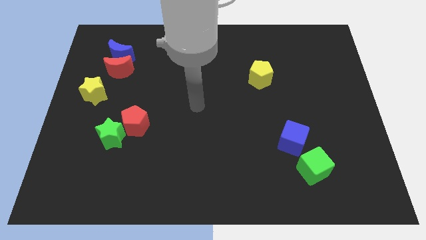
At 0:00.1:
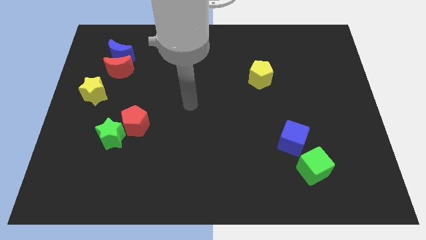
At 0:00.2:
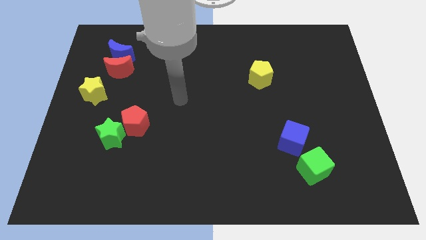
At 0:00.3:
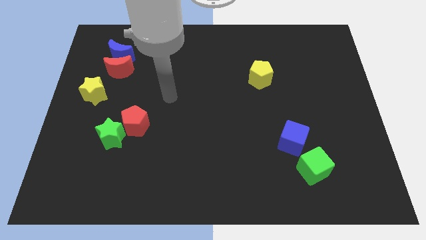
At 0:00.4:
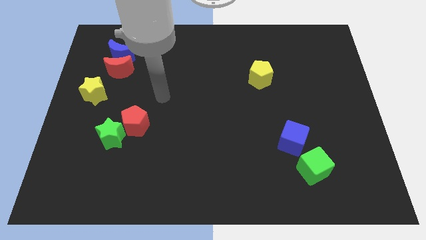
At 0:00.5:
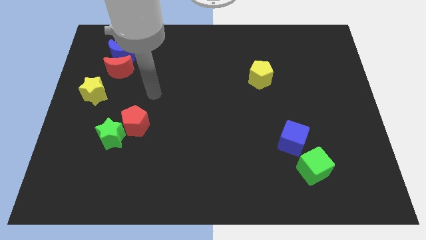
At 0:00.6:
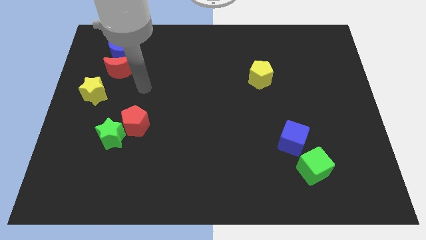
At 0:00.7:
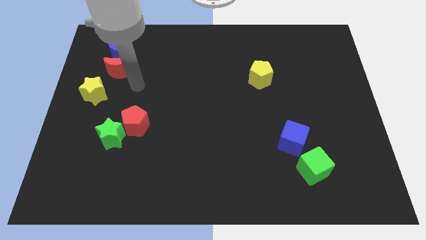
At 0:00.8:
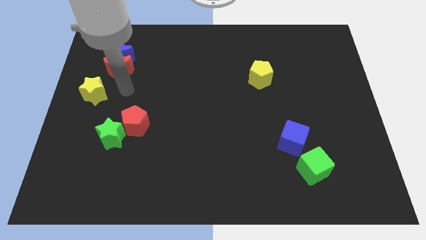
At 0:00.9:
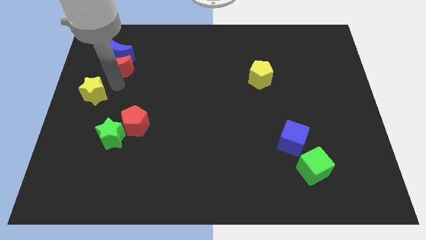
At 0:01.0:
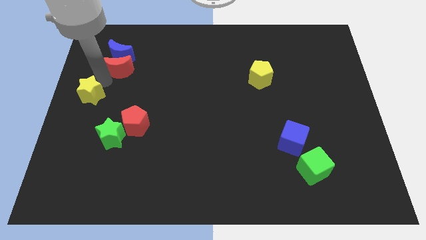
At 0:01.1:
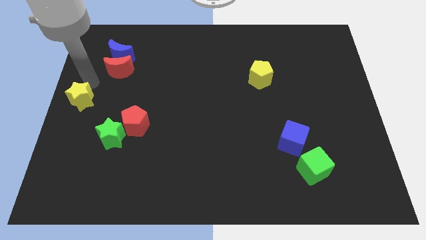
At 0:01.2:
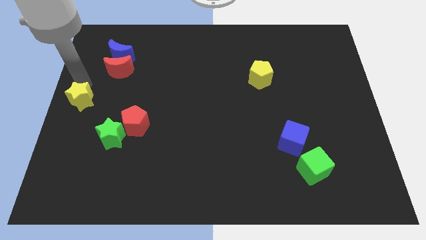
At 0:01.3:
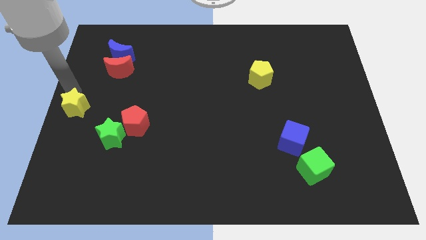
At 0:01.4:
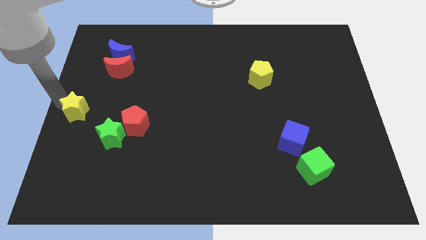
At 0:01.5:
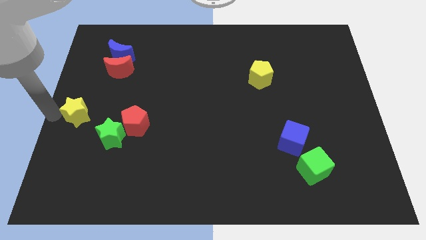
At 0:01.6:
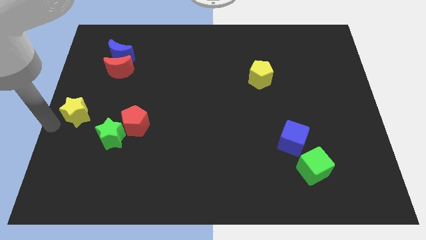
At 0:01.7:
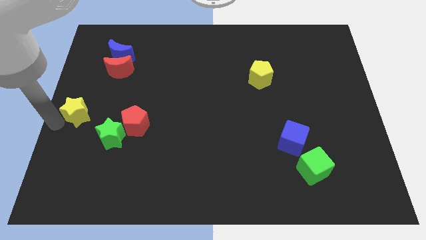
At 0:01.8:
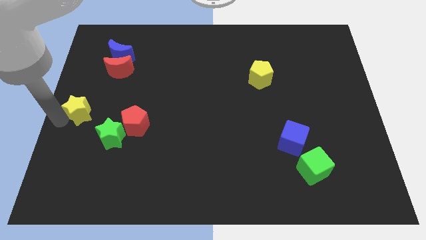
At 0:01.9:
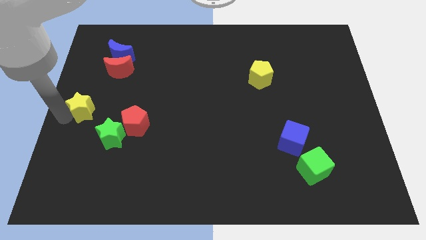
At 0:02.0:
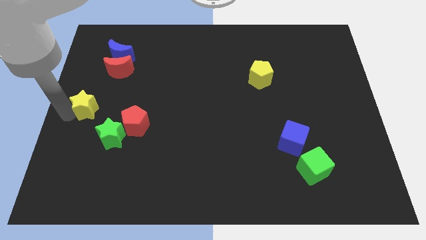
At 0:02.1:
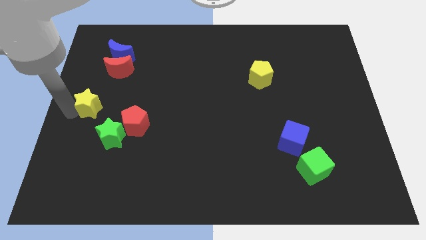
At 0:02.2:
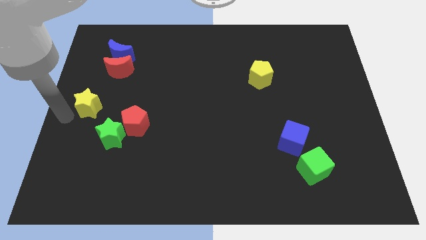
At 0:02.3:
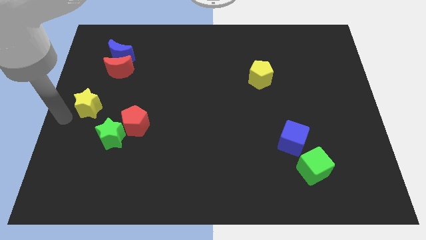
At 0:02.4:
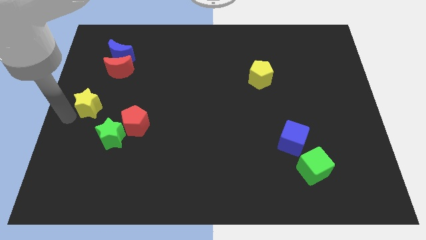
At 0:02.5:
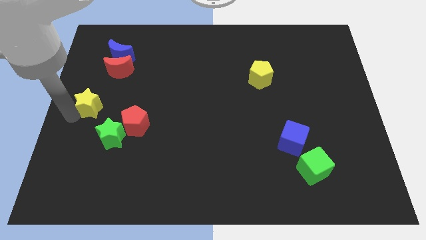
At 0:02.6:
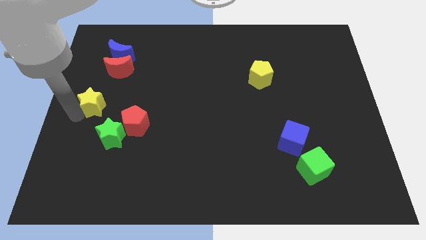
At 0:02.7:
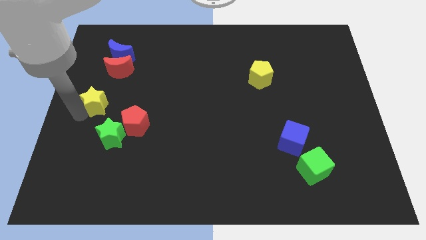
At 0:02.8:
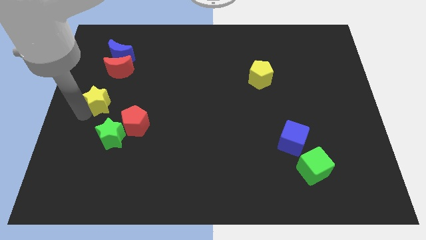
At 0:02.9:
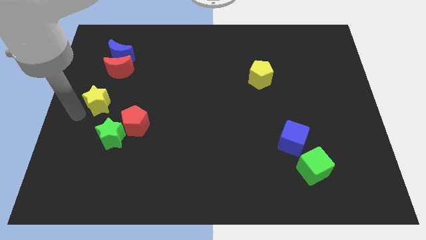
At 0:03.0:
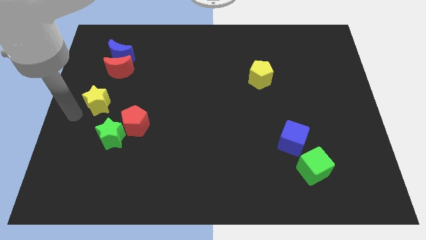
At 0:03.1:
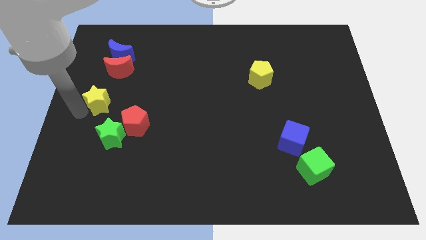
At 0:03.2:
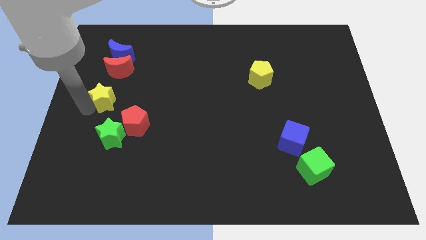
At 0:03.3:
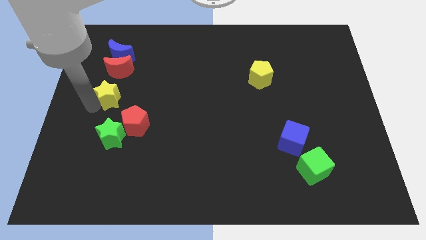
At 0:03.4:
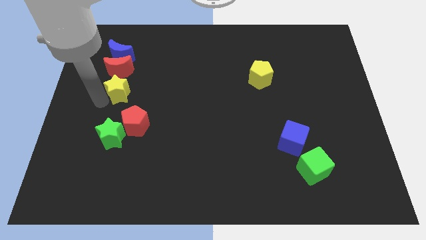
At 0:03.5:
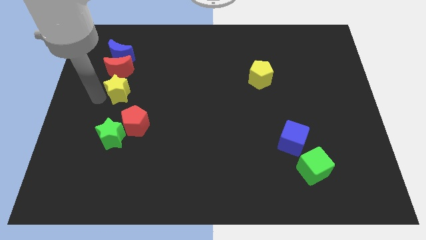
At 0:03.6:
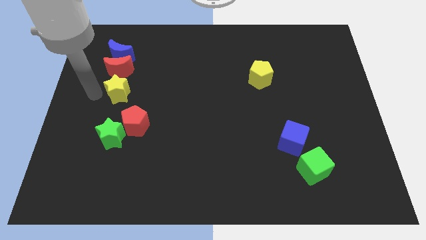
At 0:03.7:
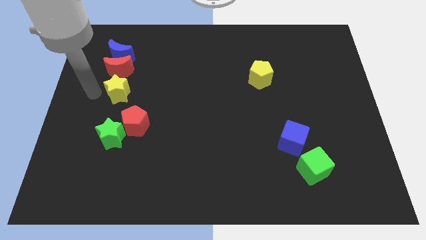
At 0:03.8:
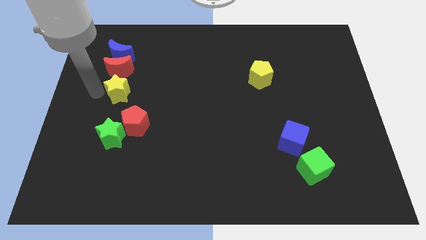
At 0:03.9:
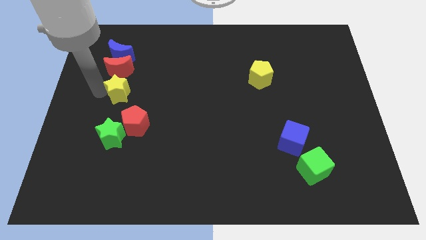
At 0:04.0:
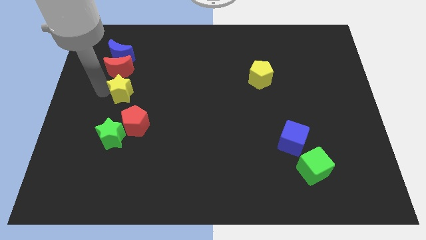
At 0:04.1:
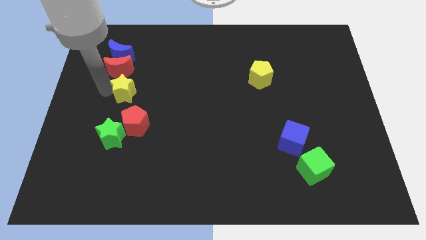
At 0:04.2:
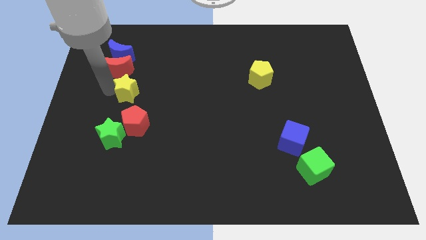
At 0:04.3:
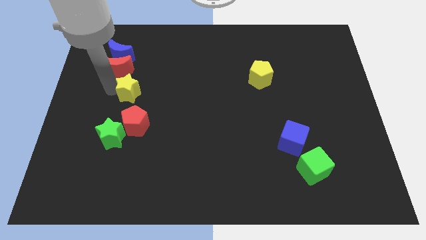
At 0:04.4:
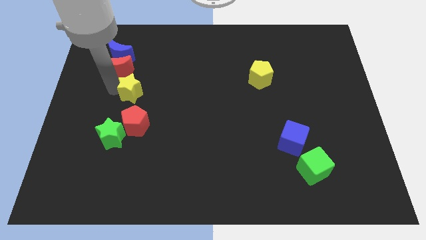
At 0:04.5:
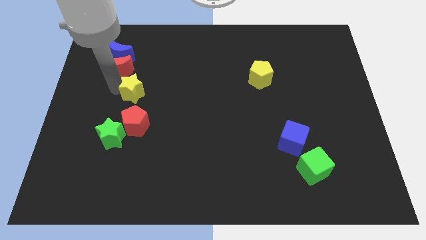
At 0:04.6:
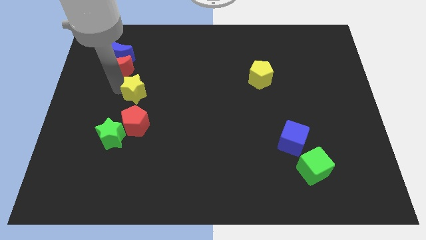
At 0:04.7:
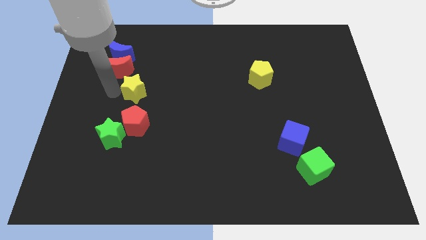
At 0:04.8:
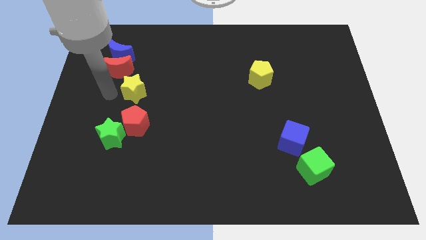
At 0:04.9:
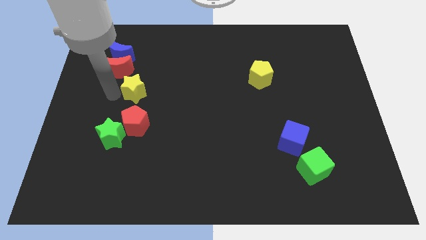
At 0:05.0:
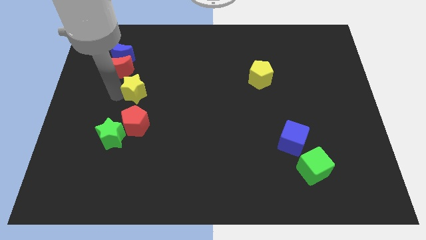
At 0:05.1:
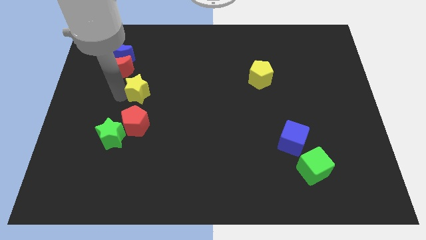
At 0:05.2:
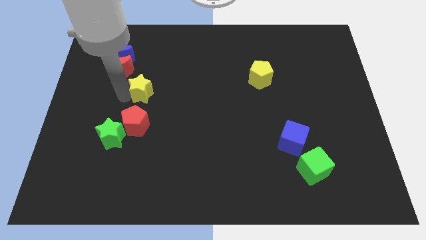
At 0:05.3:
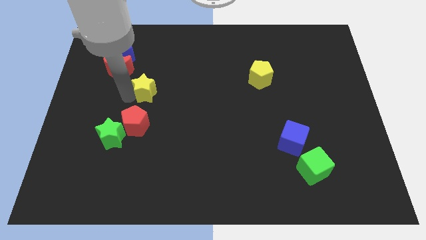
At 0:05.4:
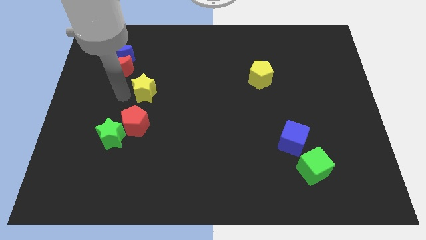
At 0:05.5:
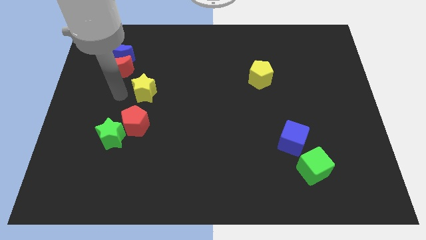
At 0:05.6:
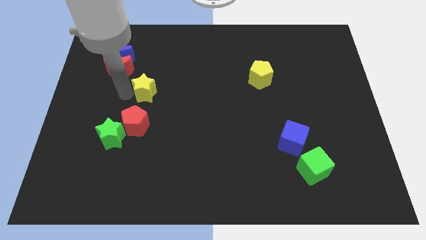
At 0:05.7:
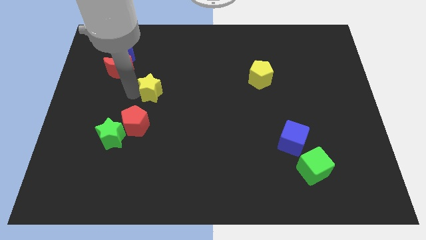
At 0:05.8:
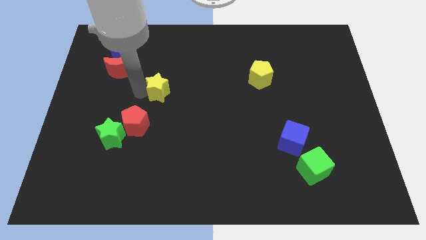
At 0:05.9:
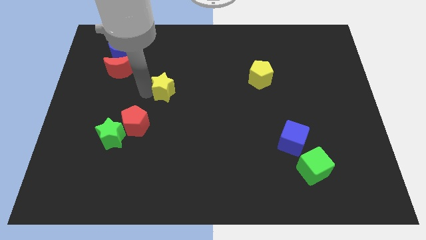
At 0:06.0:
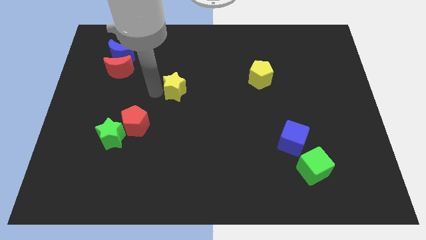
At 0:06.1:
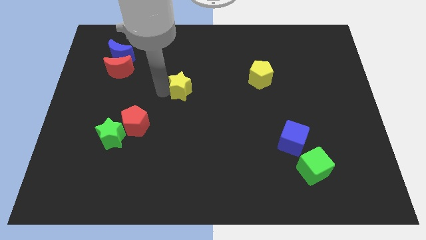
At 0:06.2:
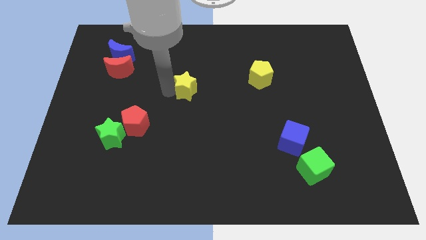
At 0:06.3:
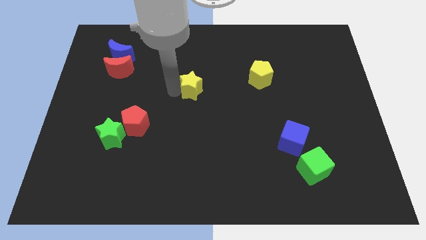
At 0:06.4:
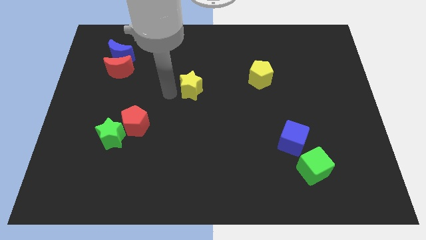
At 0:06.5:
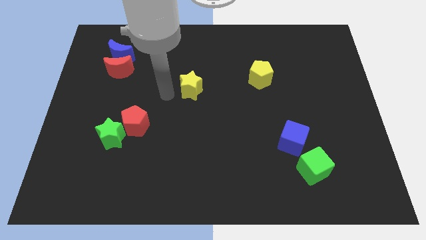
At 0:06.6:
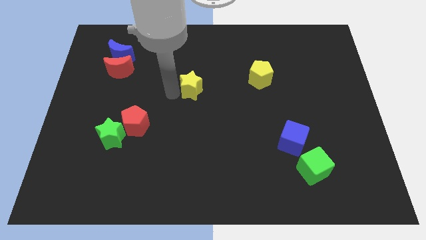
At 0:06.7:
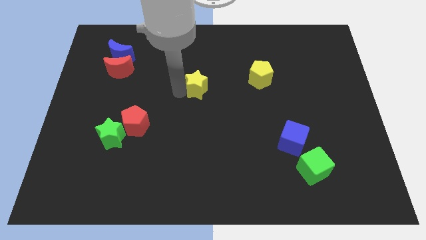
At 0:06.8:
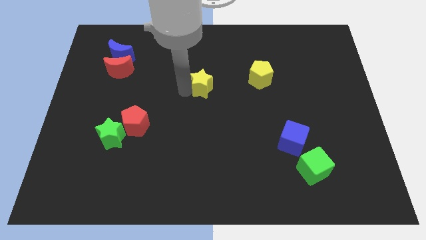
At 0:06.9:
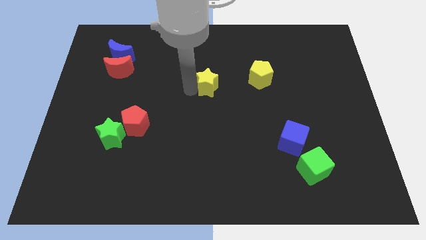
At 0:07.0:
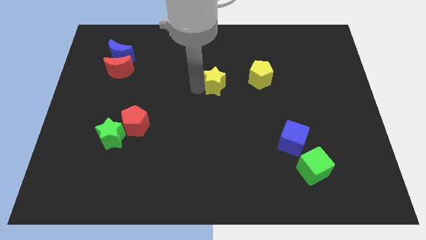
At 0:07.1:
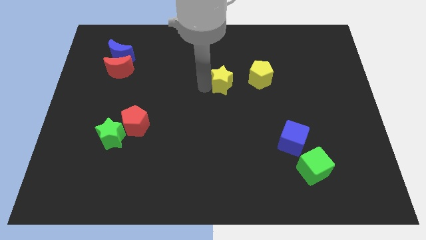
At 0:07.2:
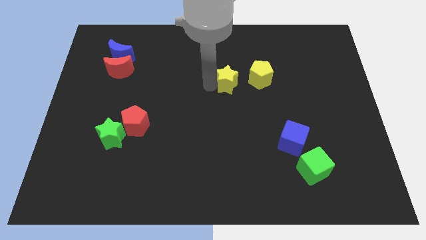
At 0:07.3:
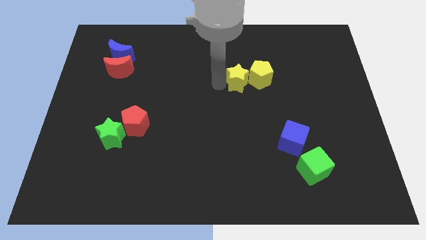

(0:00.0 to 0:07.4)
slide the yellow star close to the yellow pentagon

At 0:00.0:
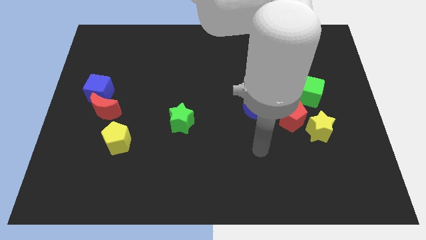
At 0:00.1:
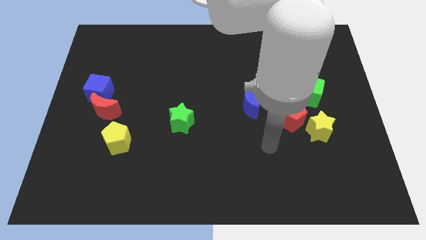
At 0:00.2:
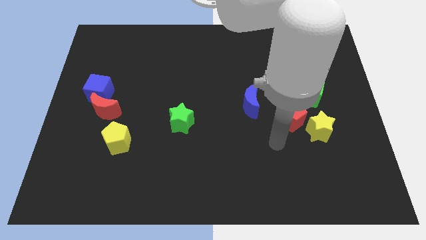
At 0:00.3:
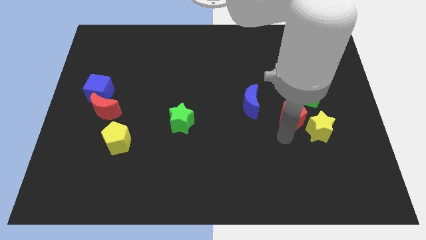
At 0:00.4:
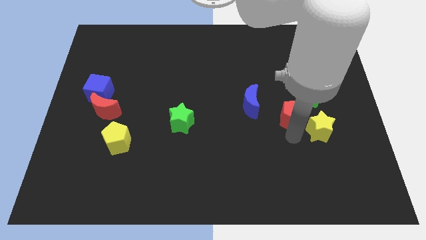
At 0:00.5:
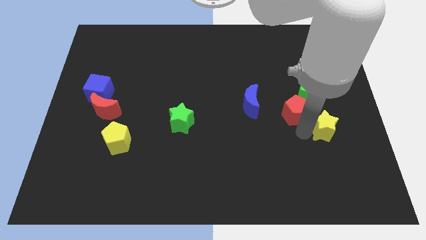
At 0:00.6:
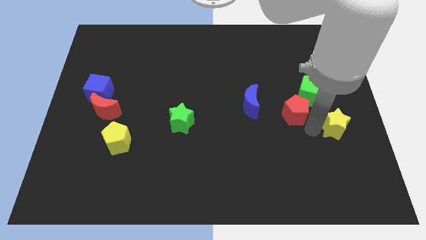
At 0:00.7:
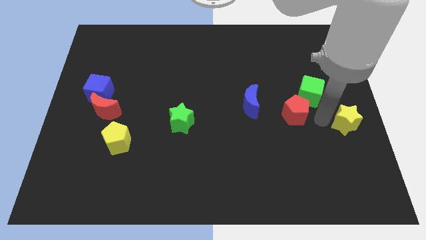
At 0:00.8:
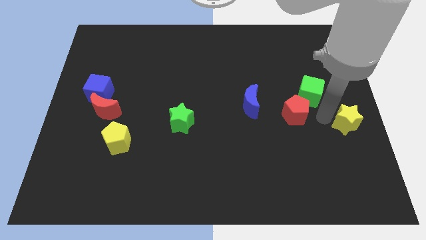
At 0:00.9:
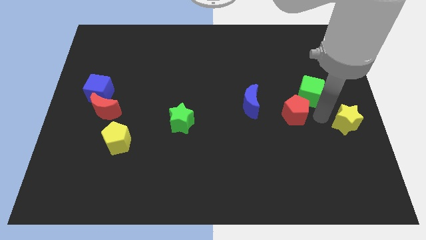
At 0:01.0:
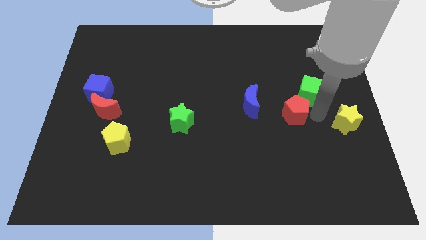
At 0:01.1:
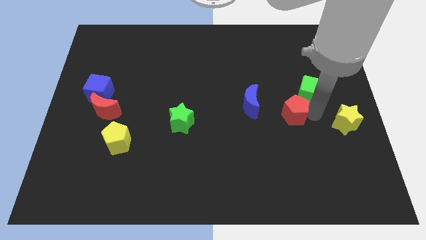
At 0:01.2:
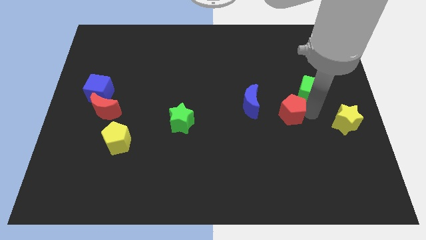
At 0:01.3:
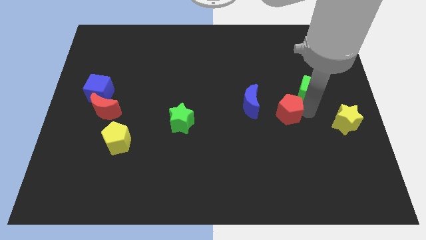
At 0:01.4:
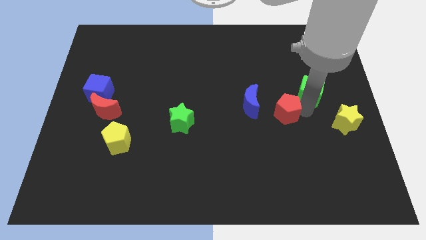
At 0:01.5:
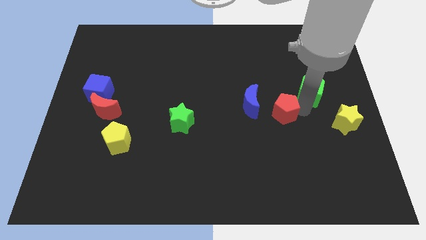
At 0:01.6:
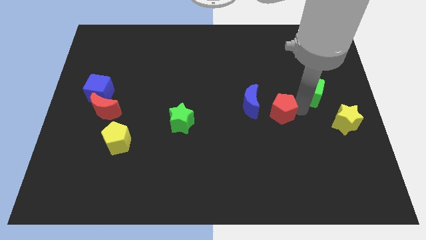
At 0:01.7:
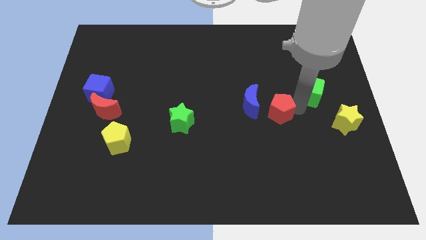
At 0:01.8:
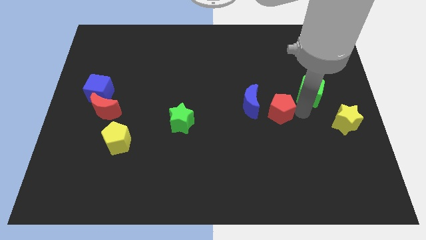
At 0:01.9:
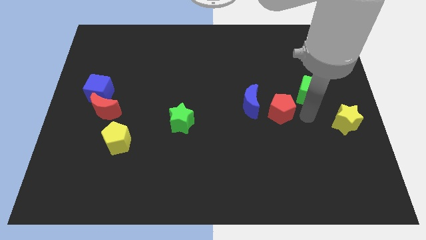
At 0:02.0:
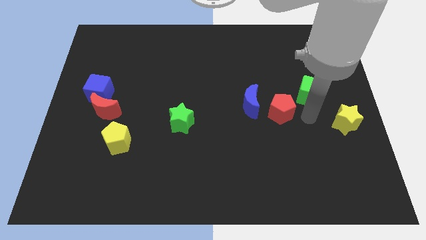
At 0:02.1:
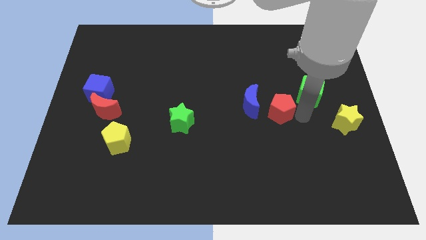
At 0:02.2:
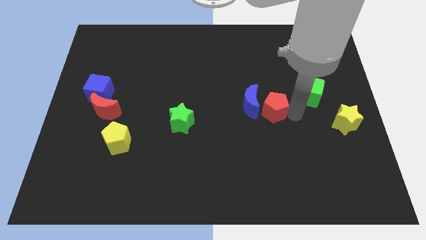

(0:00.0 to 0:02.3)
put the red pentagon towards the blue moon
